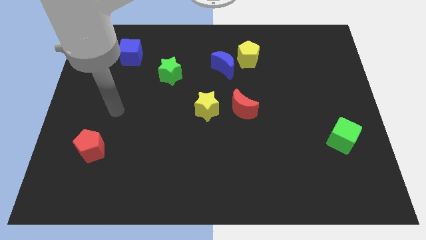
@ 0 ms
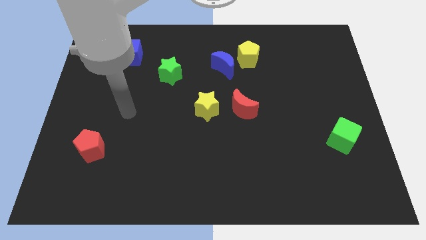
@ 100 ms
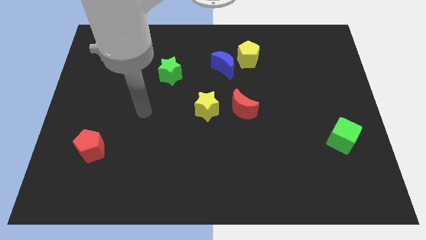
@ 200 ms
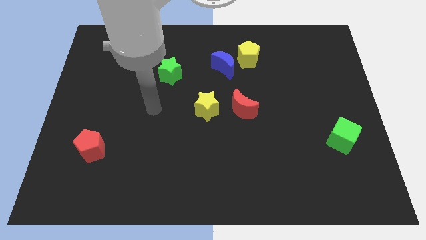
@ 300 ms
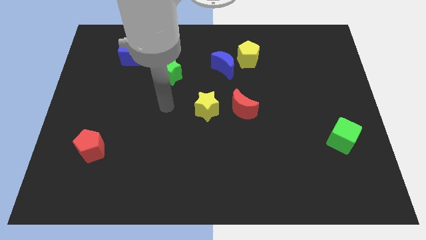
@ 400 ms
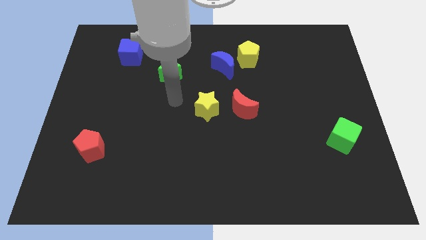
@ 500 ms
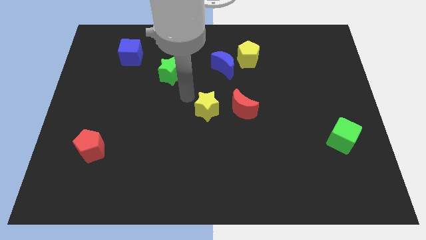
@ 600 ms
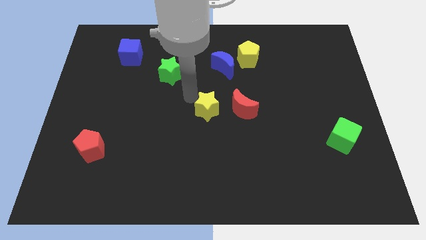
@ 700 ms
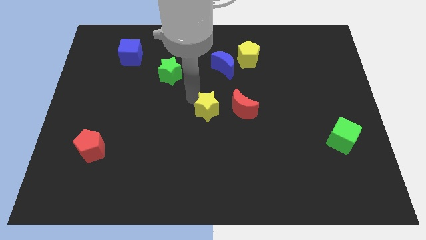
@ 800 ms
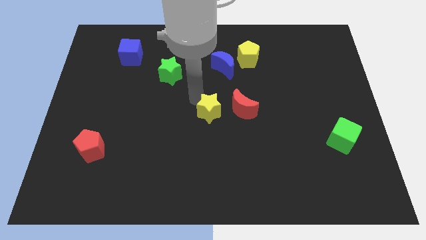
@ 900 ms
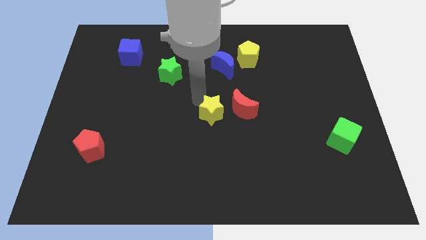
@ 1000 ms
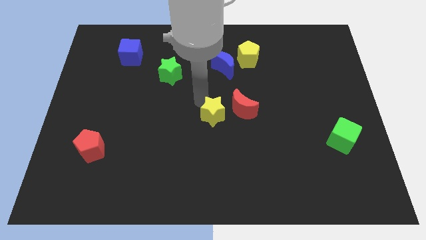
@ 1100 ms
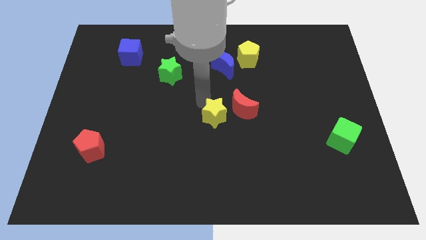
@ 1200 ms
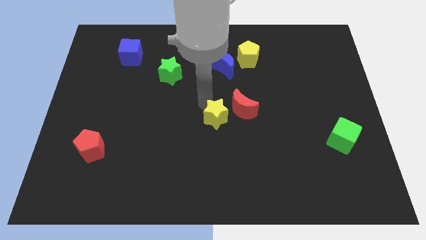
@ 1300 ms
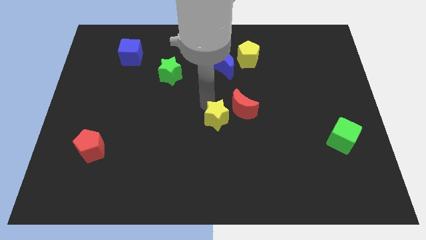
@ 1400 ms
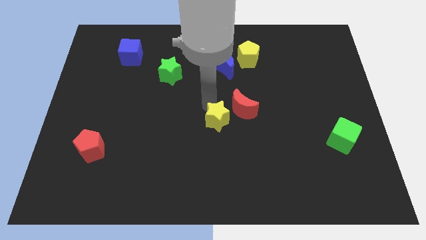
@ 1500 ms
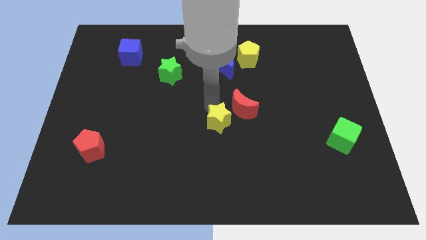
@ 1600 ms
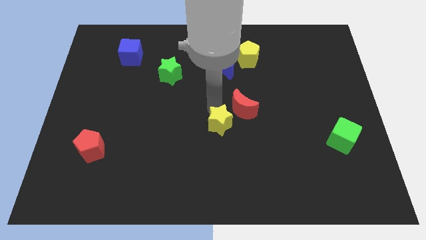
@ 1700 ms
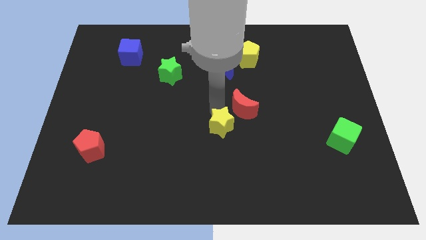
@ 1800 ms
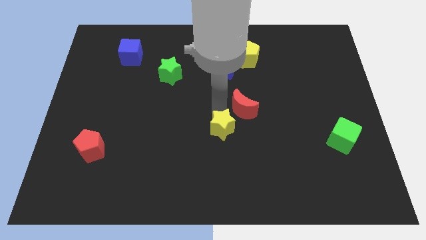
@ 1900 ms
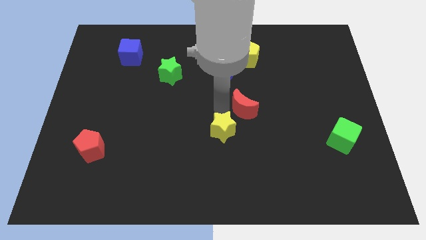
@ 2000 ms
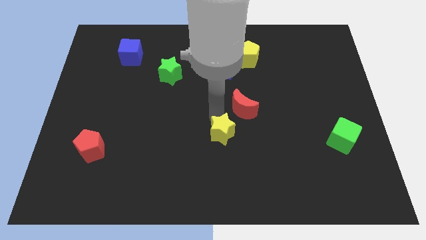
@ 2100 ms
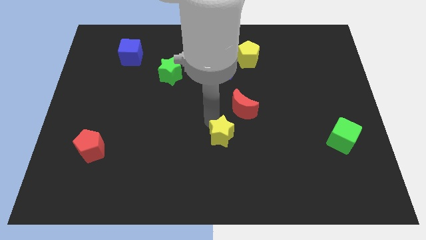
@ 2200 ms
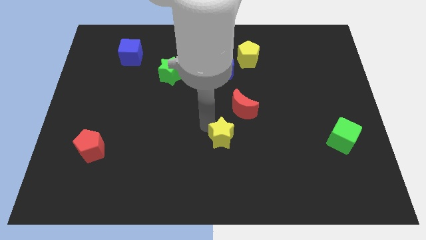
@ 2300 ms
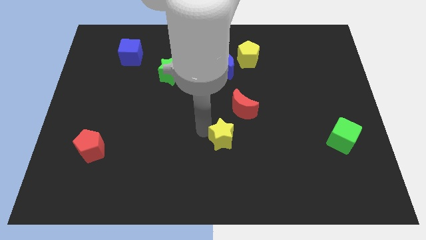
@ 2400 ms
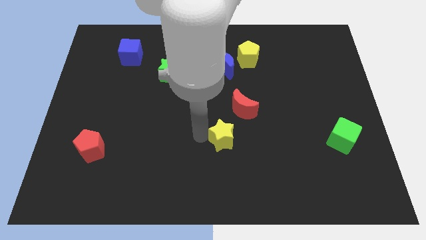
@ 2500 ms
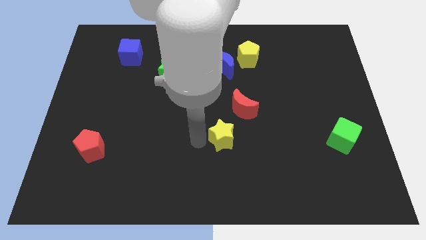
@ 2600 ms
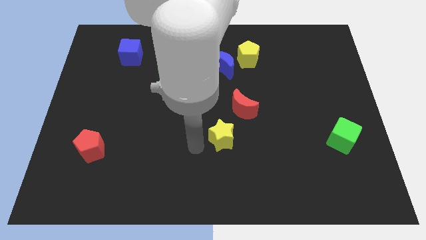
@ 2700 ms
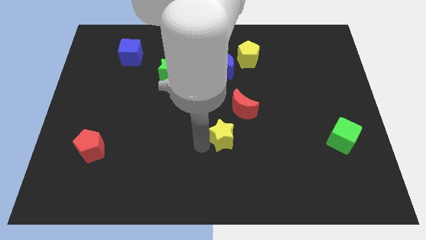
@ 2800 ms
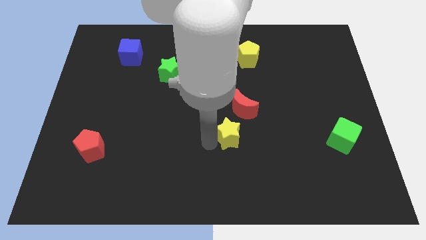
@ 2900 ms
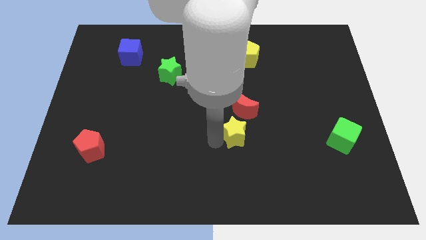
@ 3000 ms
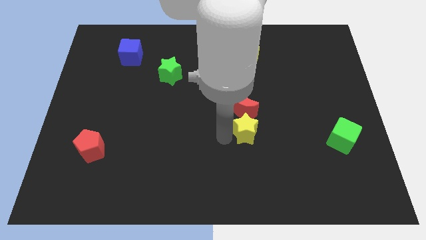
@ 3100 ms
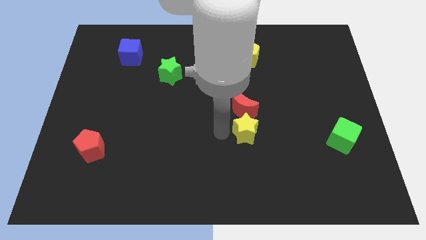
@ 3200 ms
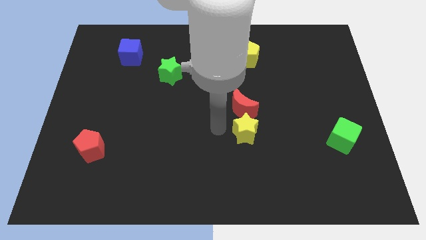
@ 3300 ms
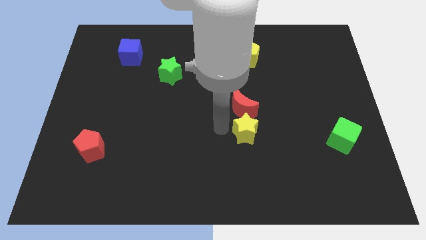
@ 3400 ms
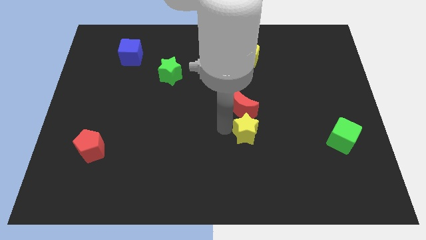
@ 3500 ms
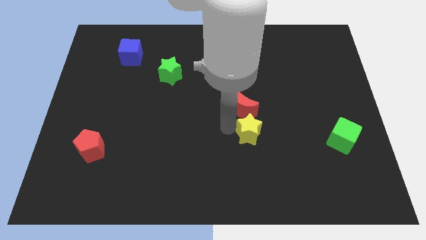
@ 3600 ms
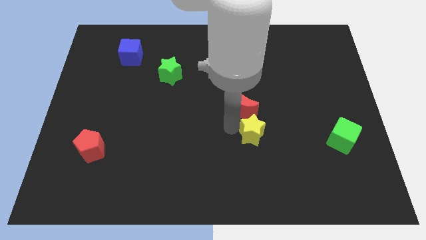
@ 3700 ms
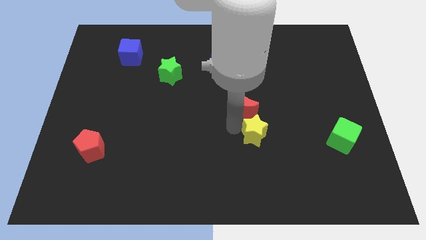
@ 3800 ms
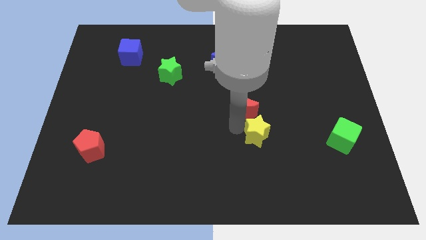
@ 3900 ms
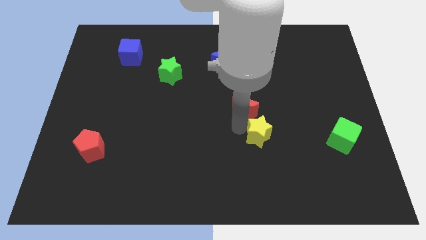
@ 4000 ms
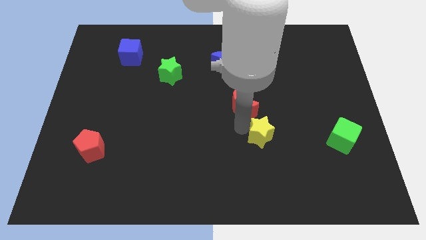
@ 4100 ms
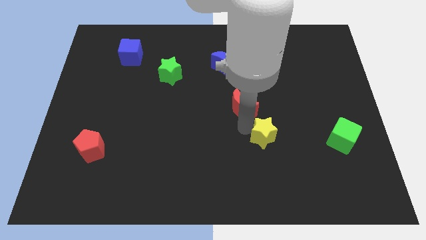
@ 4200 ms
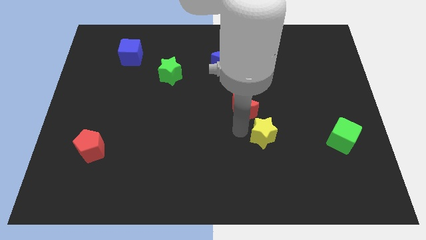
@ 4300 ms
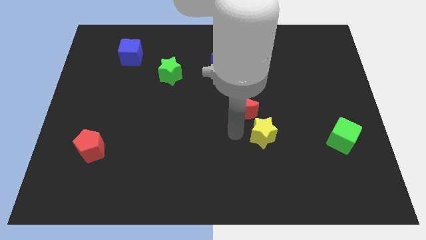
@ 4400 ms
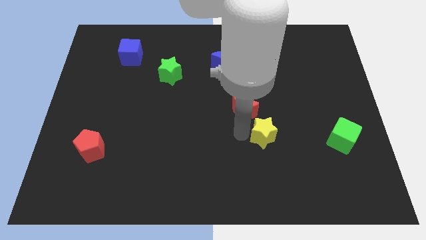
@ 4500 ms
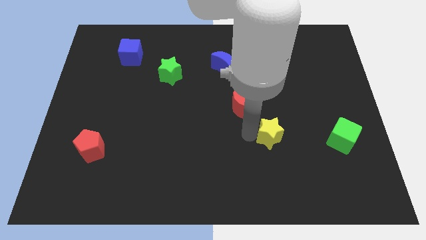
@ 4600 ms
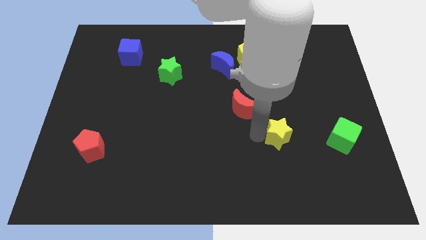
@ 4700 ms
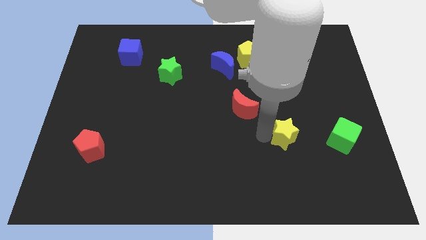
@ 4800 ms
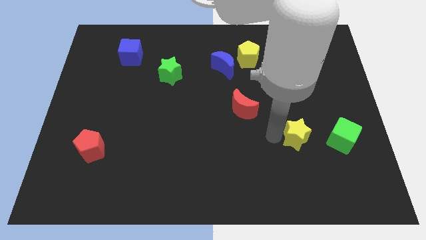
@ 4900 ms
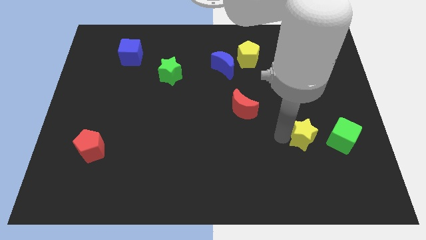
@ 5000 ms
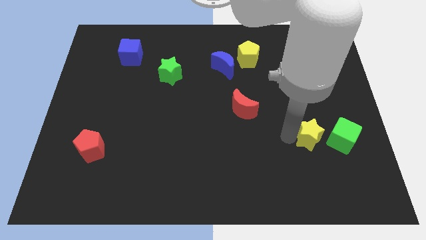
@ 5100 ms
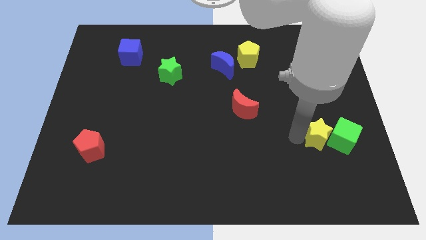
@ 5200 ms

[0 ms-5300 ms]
slide the yellow star close to the green cube

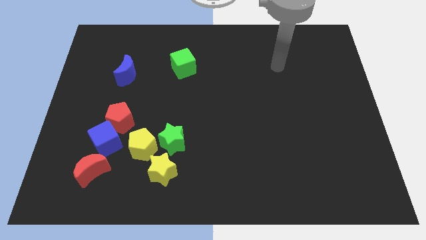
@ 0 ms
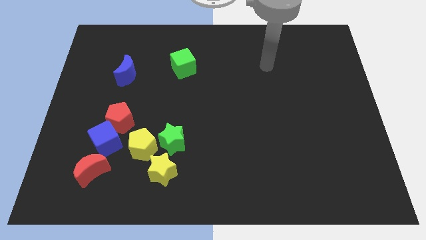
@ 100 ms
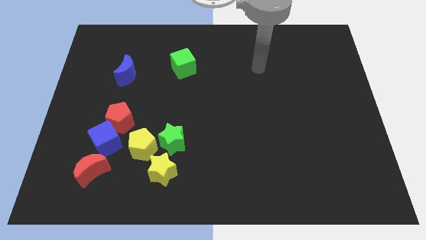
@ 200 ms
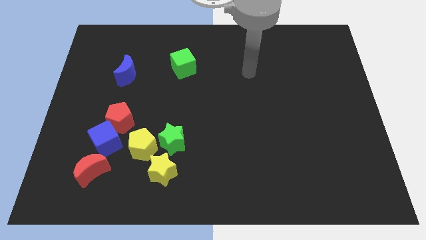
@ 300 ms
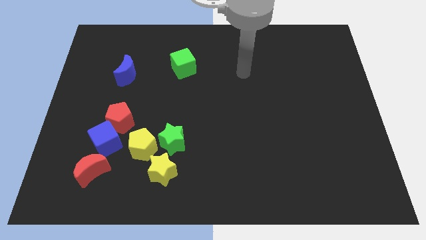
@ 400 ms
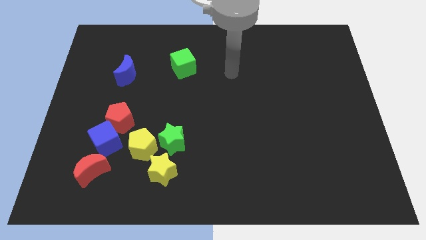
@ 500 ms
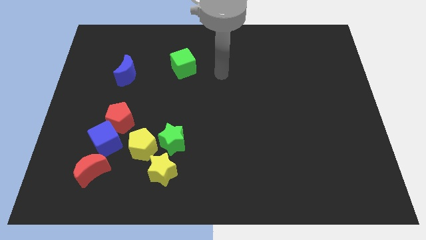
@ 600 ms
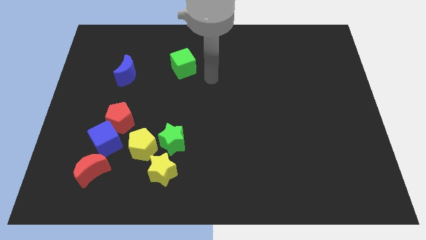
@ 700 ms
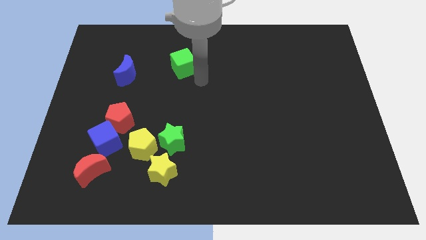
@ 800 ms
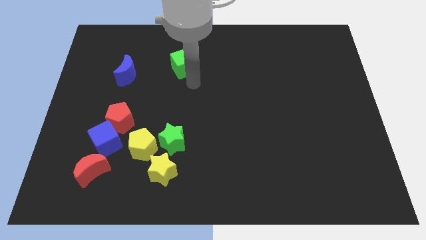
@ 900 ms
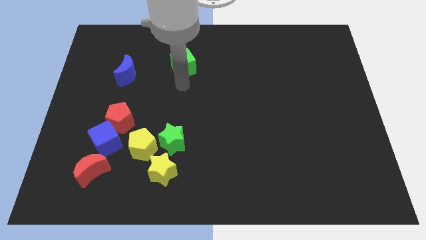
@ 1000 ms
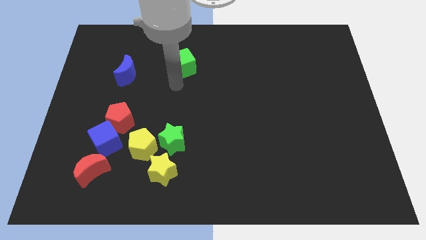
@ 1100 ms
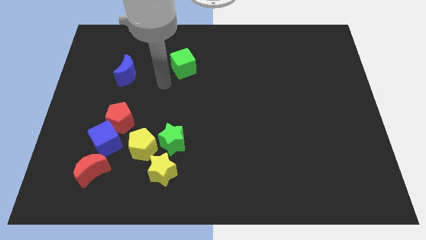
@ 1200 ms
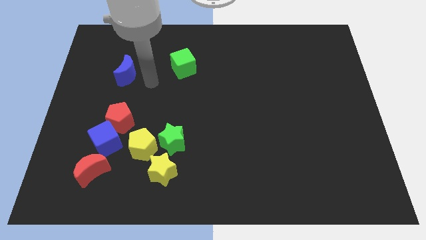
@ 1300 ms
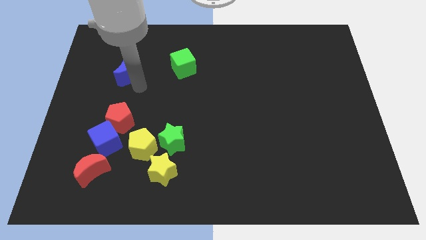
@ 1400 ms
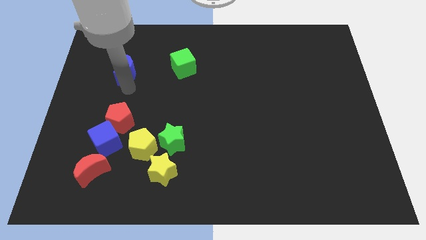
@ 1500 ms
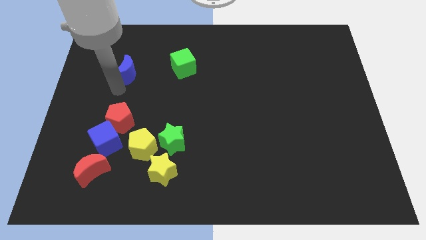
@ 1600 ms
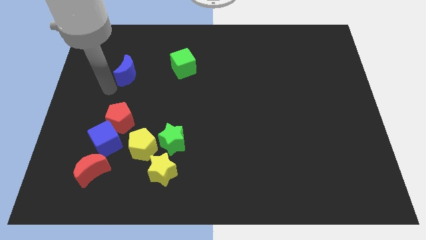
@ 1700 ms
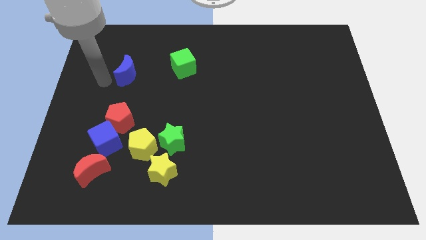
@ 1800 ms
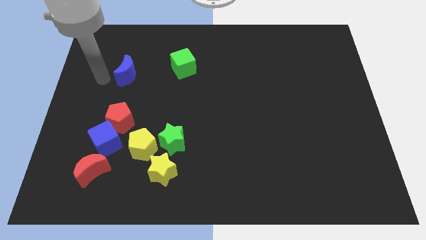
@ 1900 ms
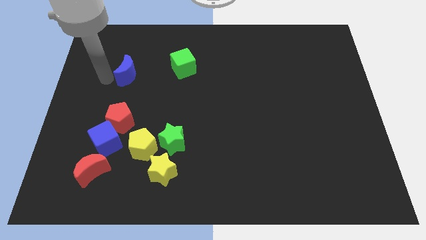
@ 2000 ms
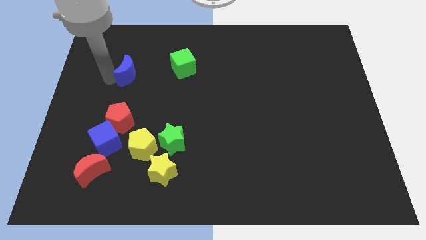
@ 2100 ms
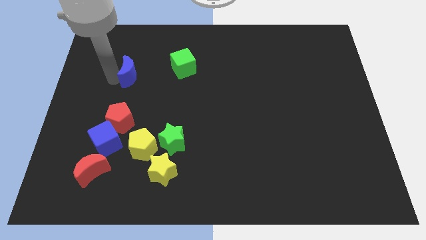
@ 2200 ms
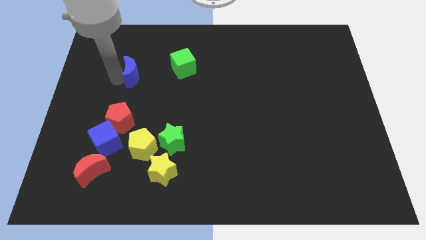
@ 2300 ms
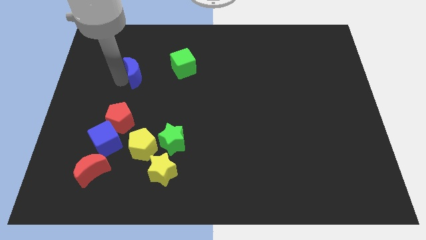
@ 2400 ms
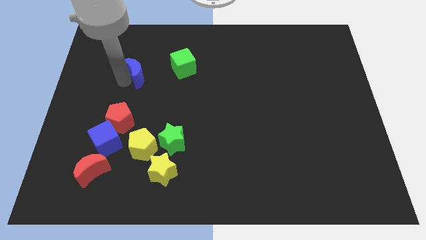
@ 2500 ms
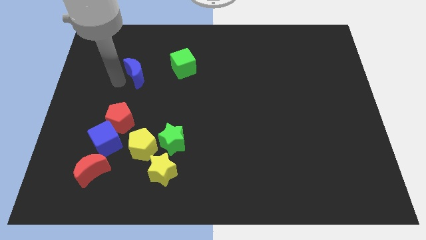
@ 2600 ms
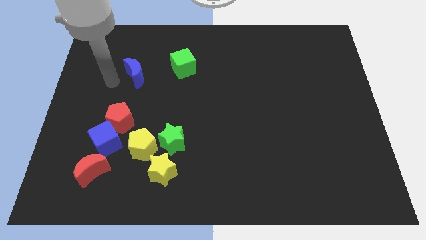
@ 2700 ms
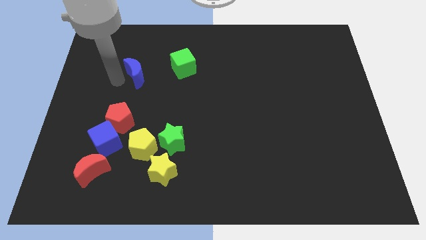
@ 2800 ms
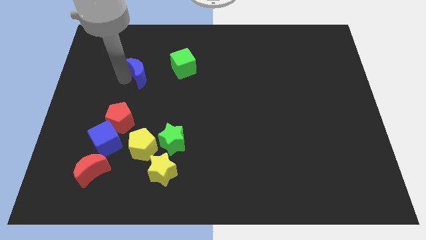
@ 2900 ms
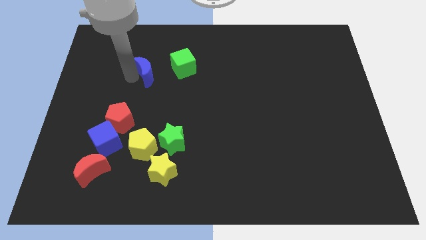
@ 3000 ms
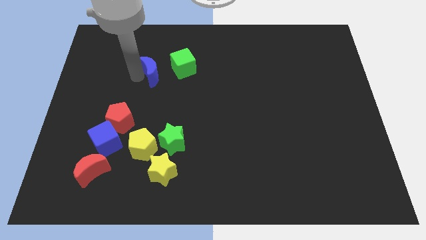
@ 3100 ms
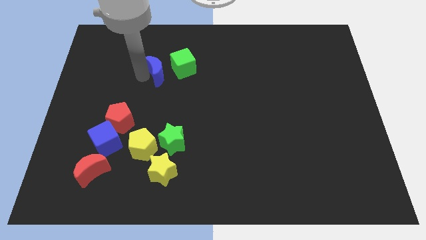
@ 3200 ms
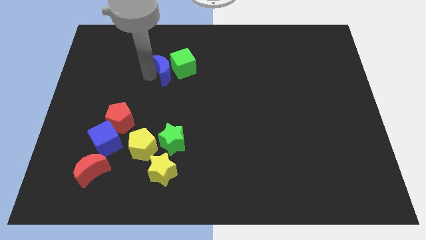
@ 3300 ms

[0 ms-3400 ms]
push the blue moon close to the green cube
